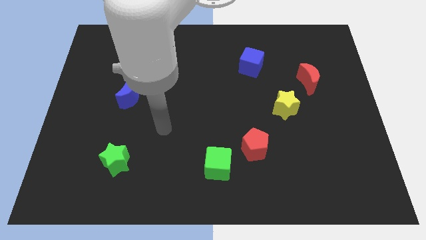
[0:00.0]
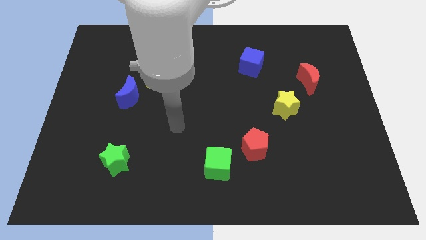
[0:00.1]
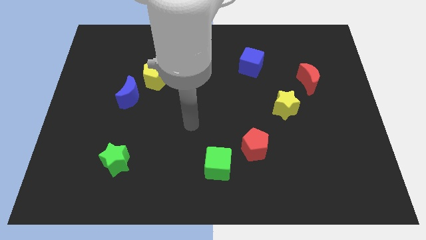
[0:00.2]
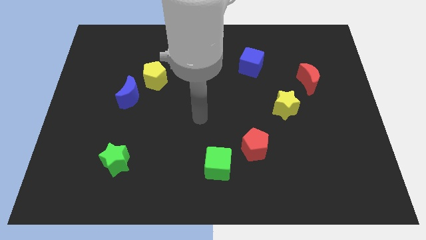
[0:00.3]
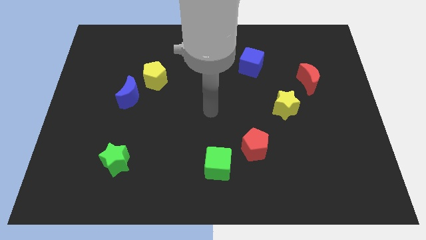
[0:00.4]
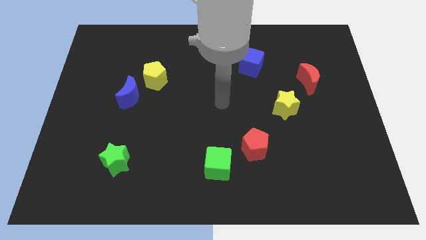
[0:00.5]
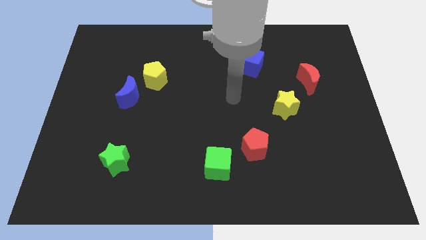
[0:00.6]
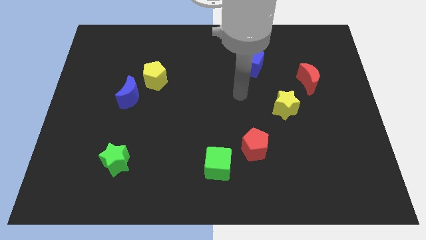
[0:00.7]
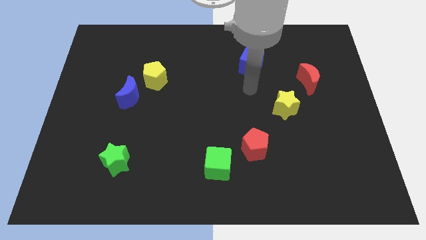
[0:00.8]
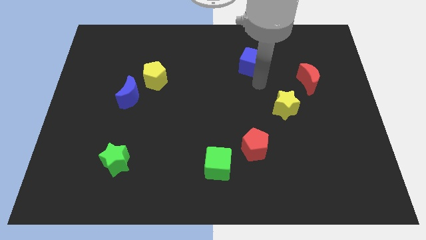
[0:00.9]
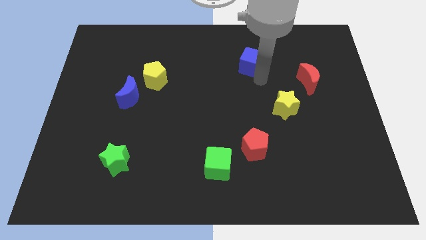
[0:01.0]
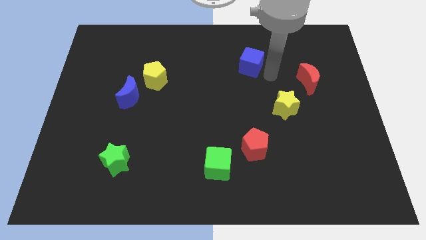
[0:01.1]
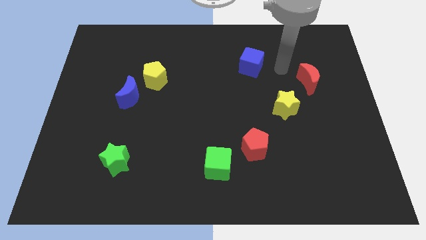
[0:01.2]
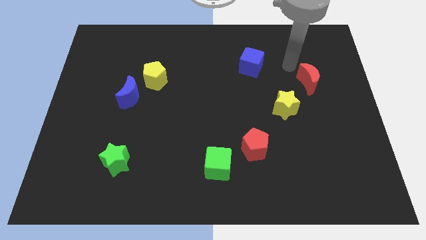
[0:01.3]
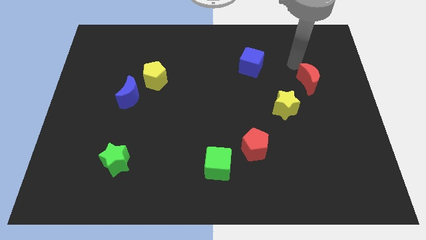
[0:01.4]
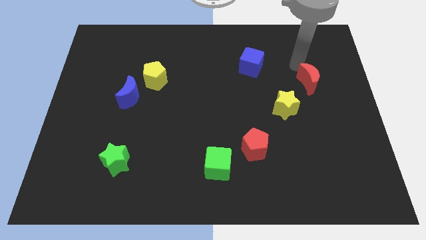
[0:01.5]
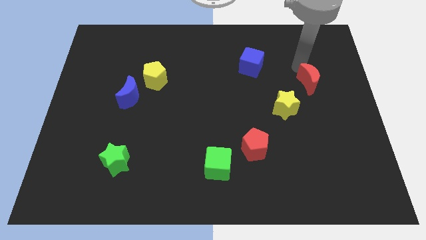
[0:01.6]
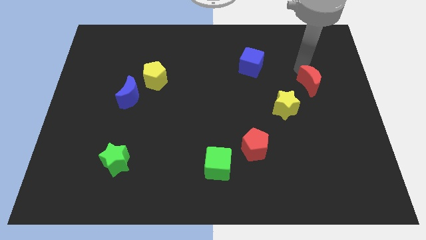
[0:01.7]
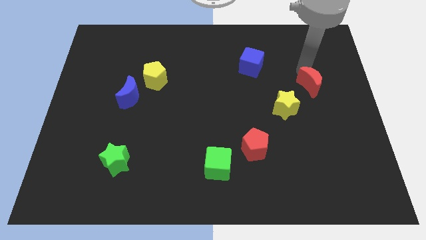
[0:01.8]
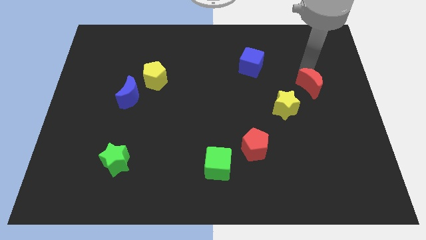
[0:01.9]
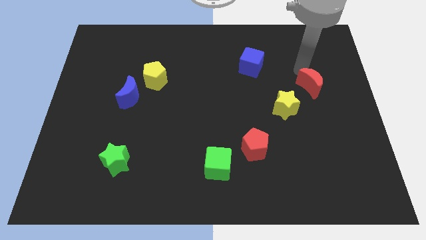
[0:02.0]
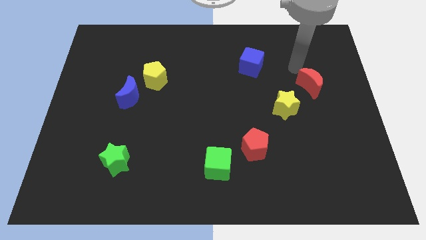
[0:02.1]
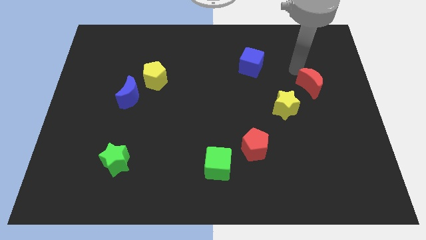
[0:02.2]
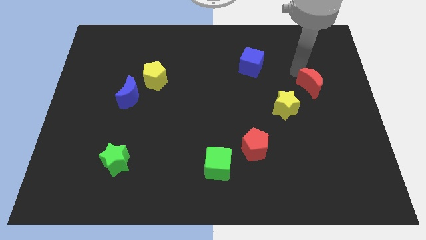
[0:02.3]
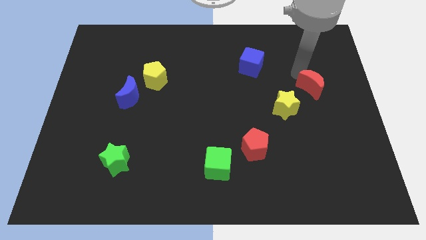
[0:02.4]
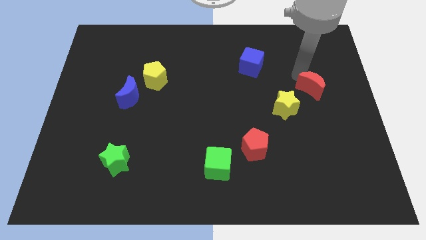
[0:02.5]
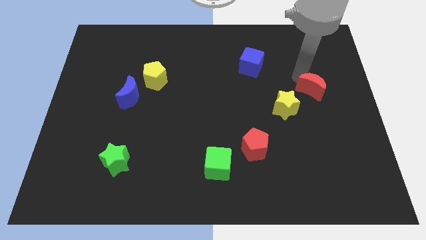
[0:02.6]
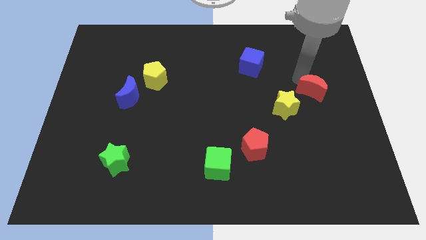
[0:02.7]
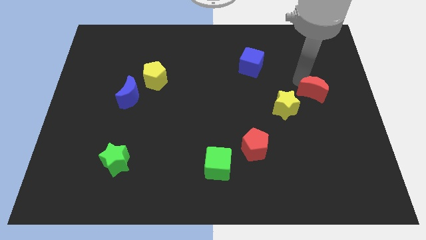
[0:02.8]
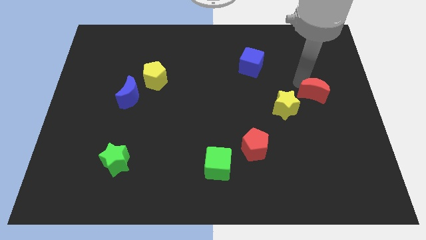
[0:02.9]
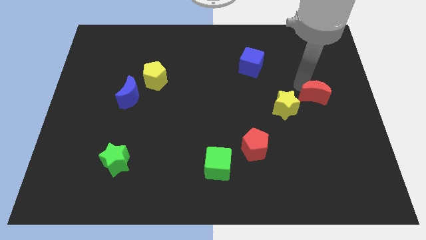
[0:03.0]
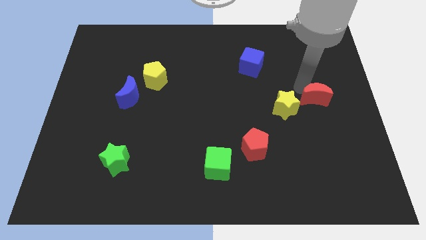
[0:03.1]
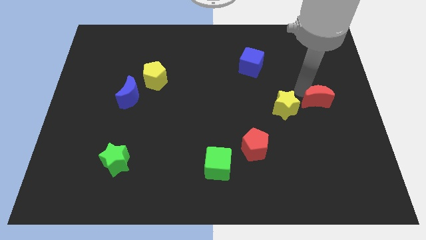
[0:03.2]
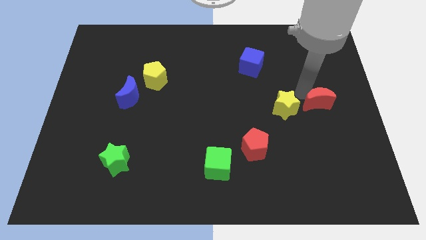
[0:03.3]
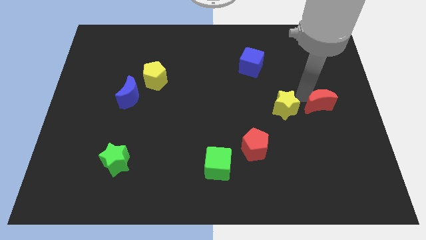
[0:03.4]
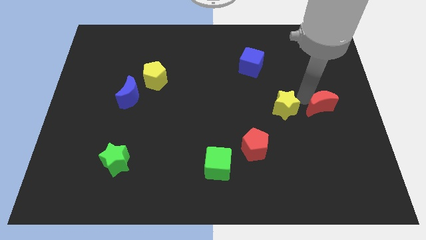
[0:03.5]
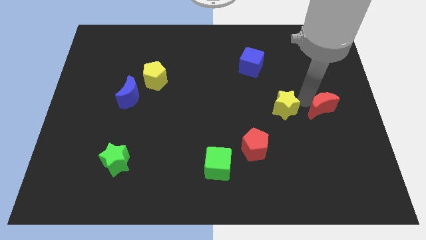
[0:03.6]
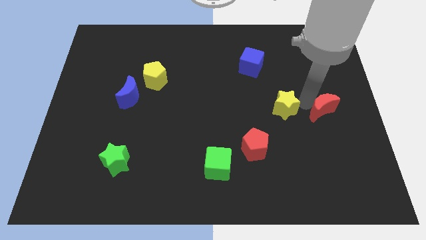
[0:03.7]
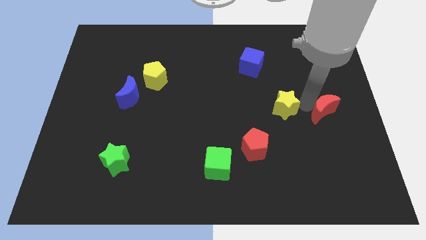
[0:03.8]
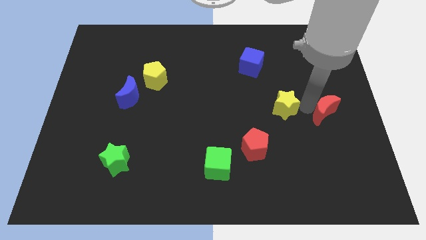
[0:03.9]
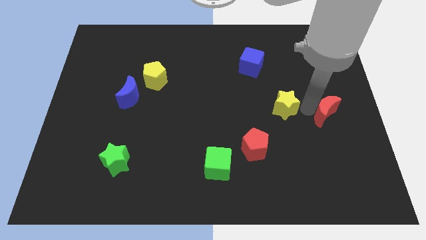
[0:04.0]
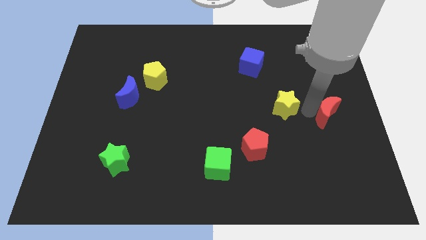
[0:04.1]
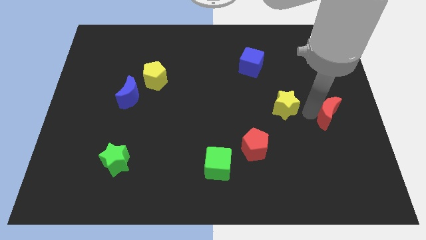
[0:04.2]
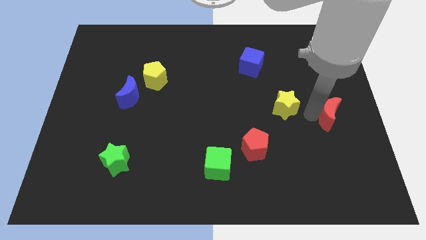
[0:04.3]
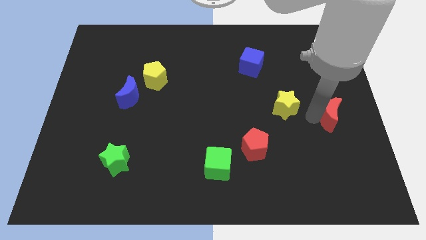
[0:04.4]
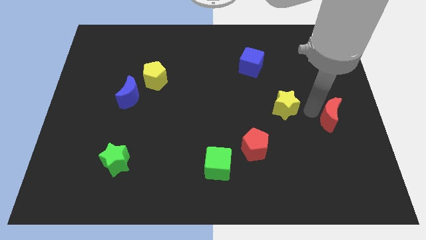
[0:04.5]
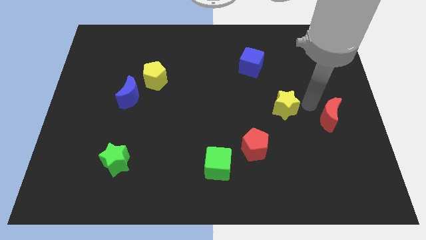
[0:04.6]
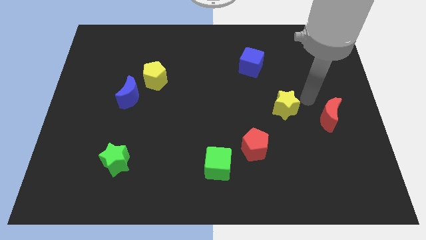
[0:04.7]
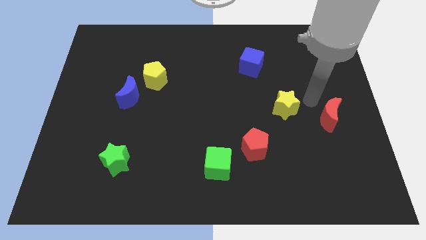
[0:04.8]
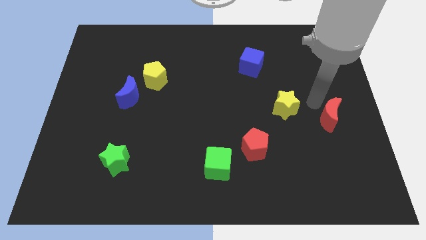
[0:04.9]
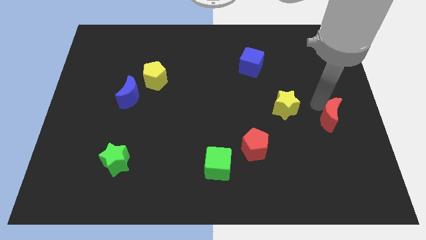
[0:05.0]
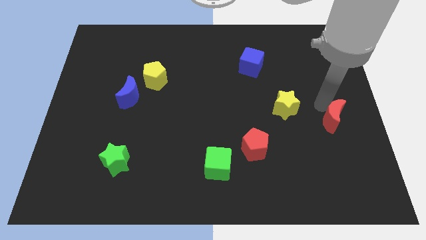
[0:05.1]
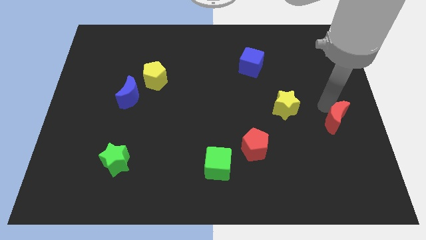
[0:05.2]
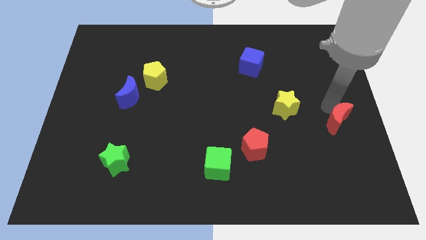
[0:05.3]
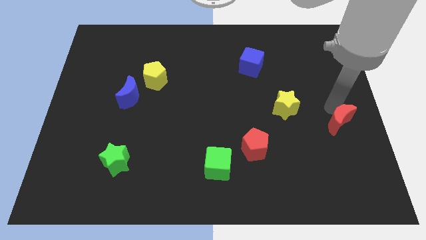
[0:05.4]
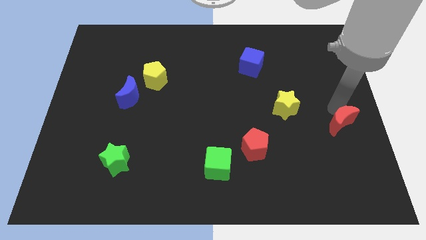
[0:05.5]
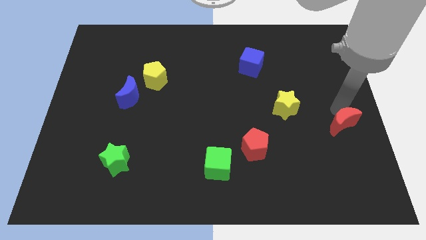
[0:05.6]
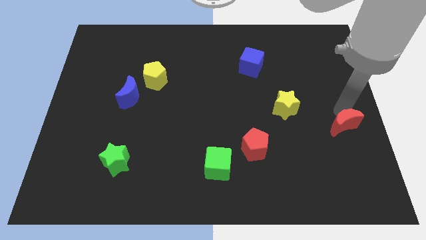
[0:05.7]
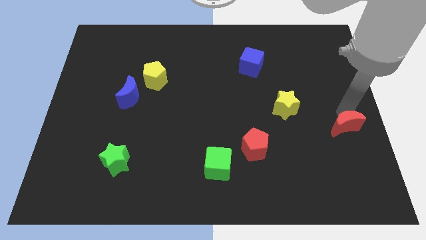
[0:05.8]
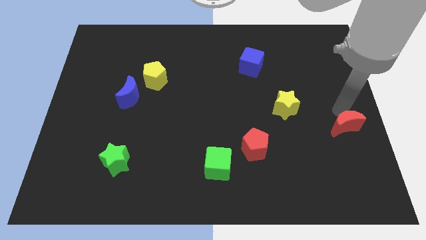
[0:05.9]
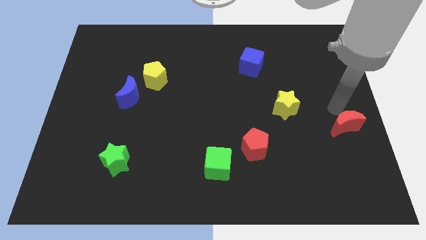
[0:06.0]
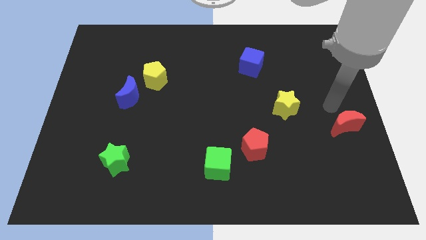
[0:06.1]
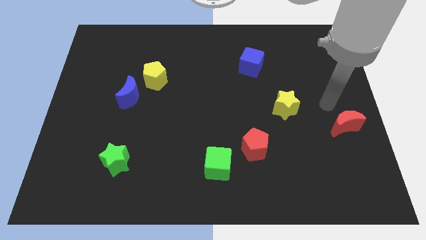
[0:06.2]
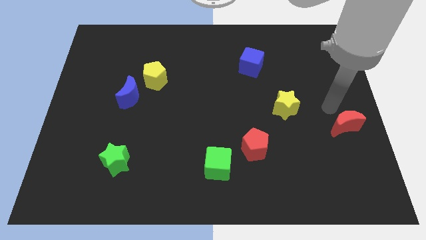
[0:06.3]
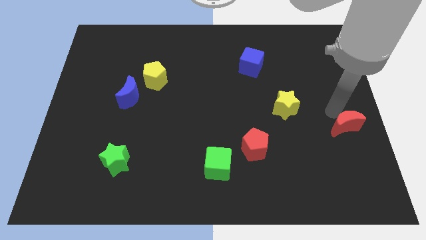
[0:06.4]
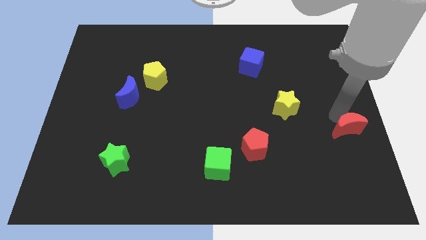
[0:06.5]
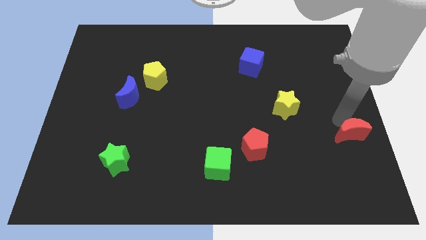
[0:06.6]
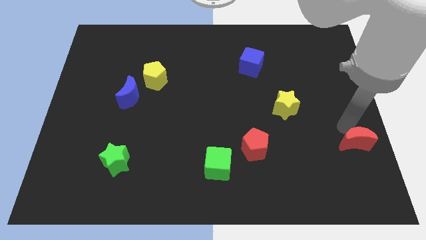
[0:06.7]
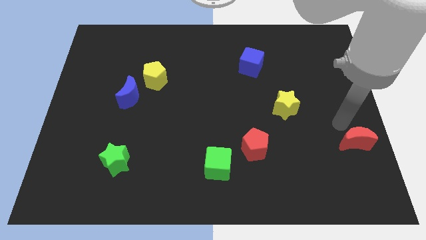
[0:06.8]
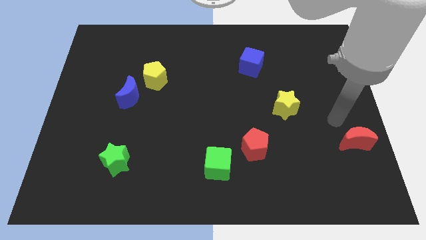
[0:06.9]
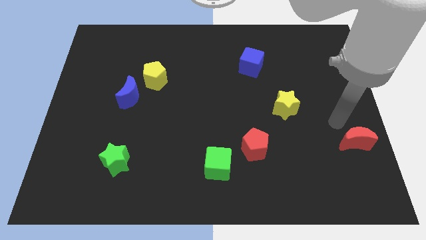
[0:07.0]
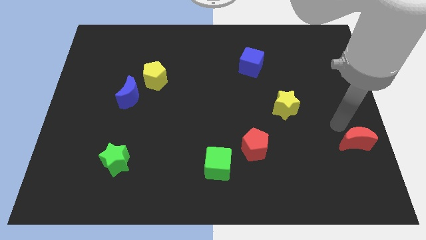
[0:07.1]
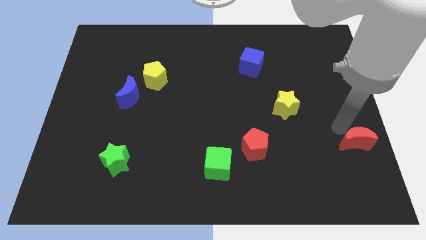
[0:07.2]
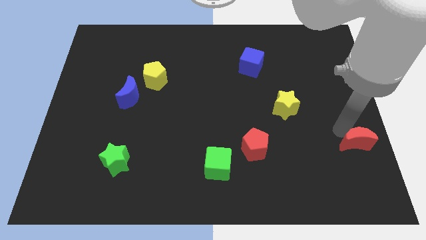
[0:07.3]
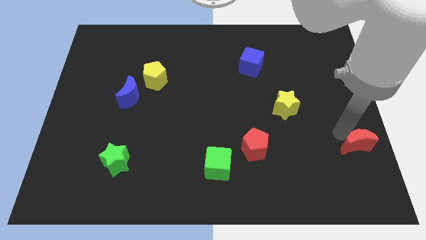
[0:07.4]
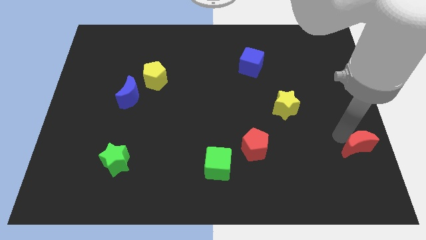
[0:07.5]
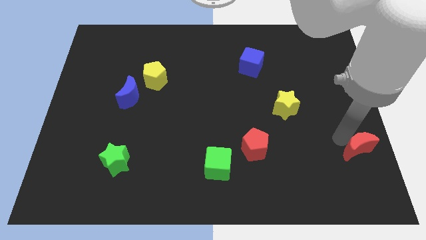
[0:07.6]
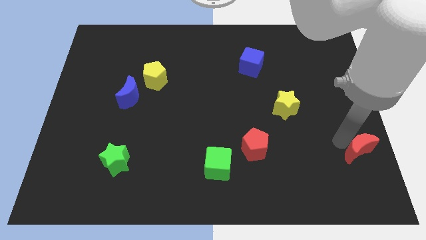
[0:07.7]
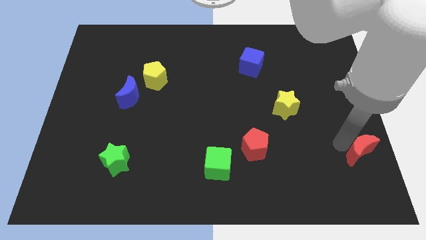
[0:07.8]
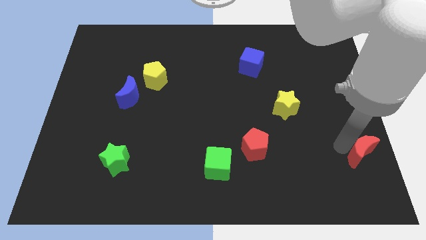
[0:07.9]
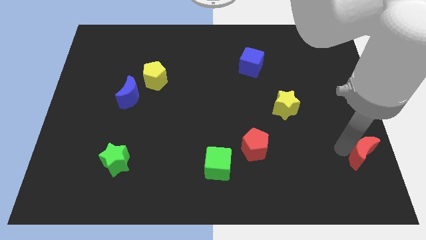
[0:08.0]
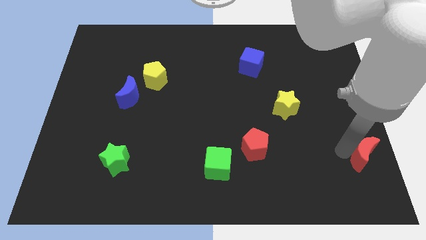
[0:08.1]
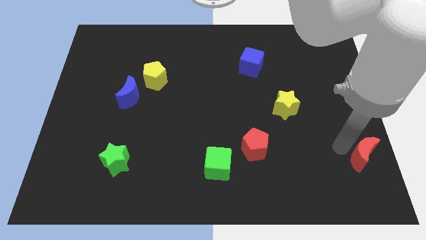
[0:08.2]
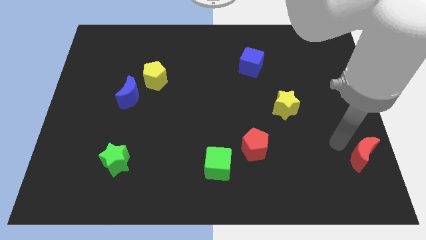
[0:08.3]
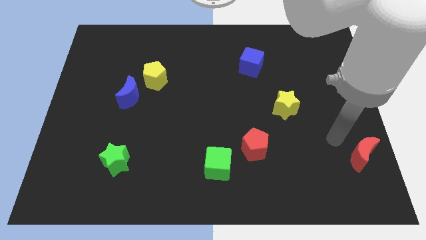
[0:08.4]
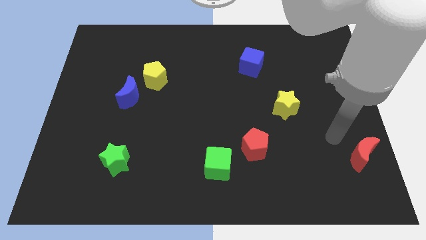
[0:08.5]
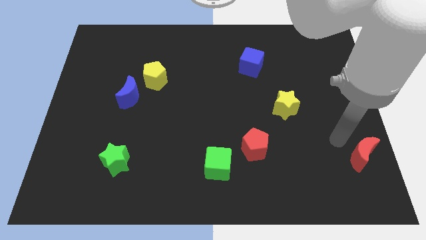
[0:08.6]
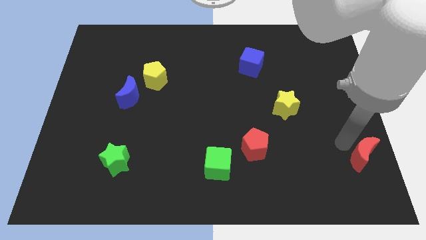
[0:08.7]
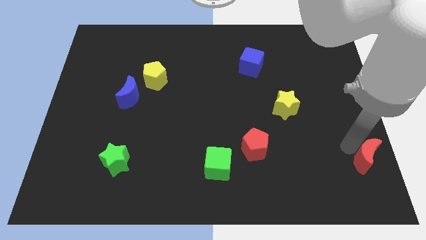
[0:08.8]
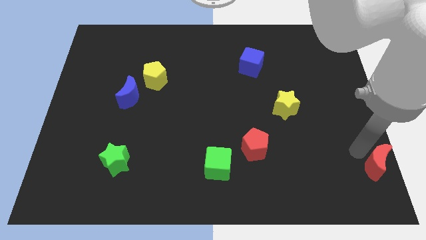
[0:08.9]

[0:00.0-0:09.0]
push the red moon to the bottom right of the board
